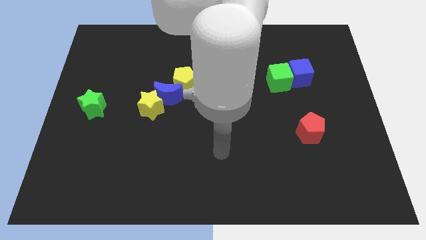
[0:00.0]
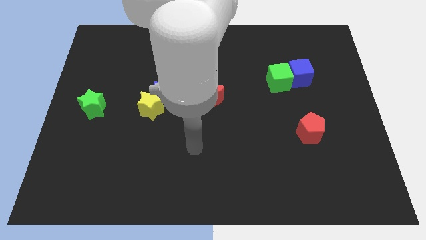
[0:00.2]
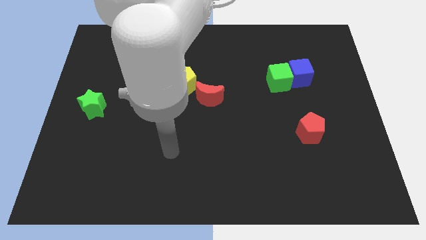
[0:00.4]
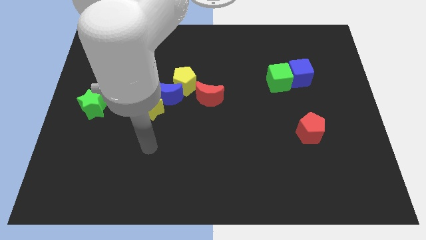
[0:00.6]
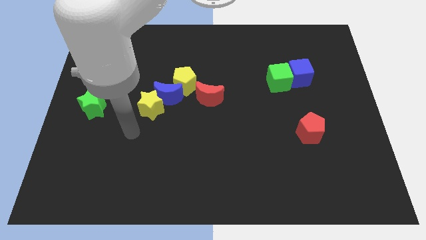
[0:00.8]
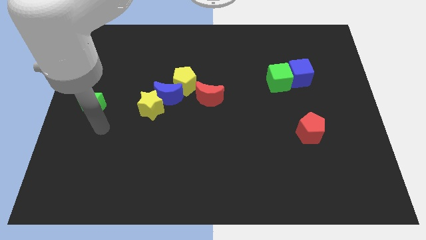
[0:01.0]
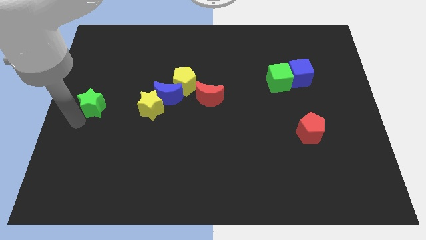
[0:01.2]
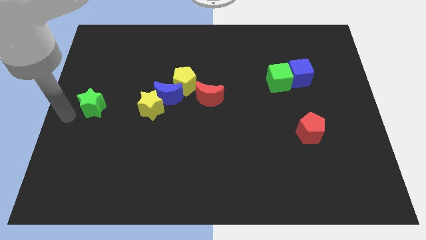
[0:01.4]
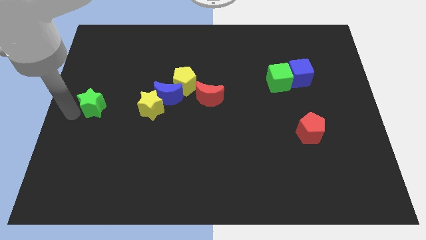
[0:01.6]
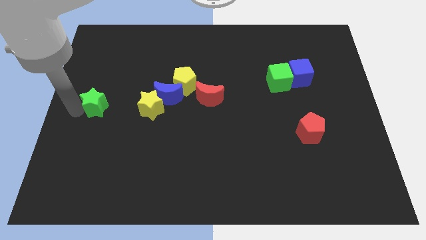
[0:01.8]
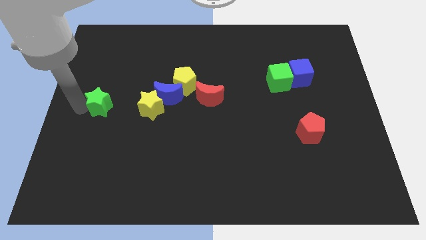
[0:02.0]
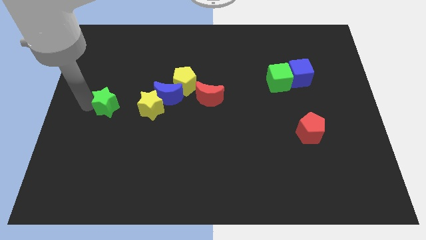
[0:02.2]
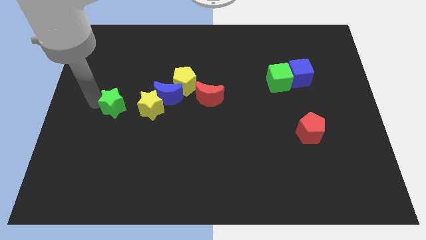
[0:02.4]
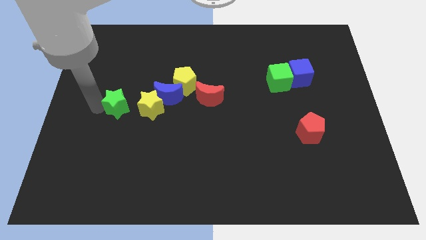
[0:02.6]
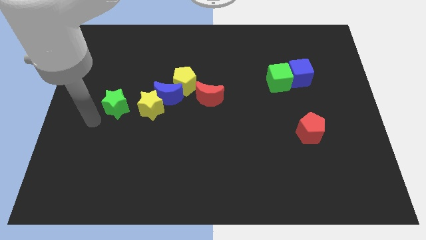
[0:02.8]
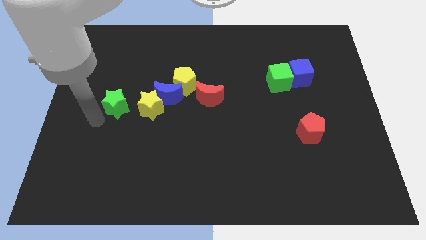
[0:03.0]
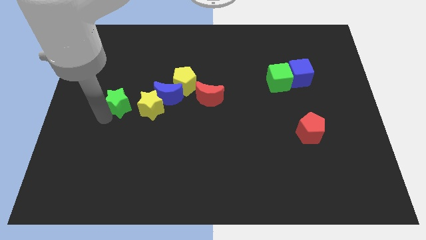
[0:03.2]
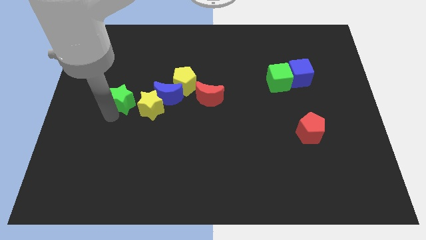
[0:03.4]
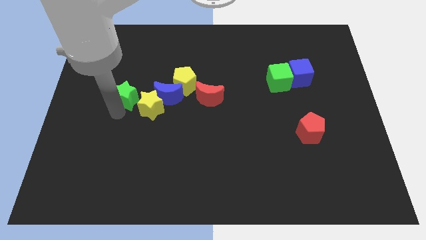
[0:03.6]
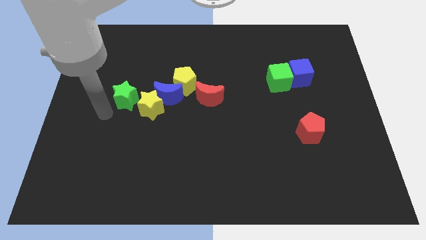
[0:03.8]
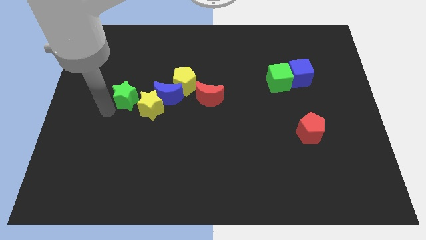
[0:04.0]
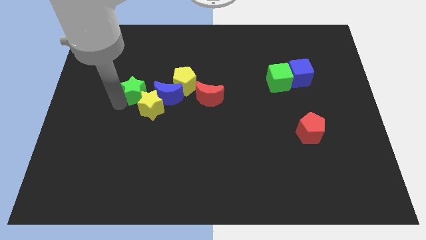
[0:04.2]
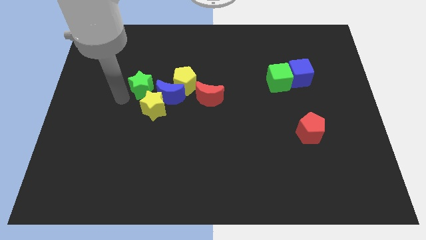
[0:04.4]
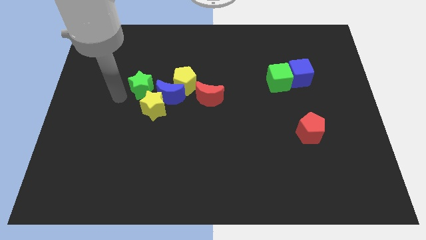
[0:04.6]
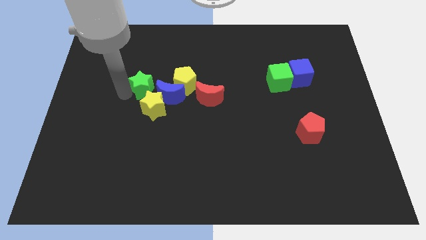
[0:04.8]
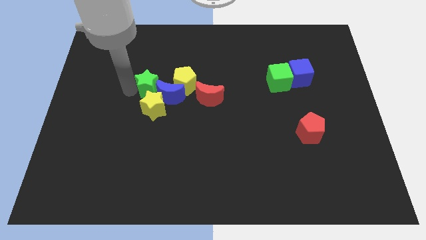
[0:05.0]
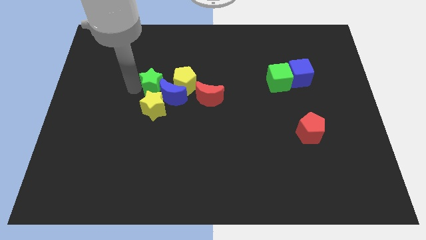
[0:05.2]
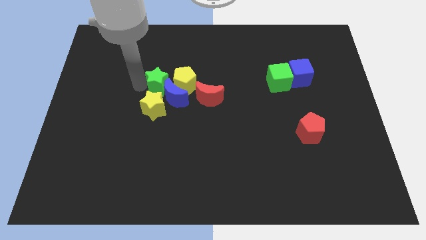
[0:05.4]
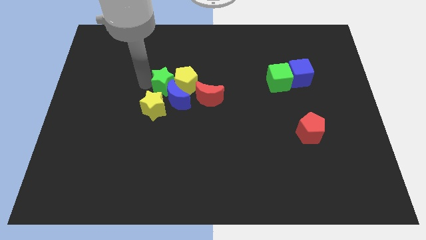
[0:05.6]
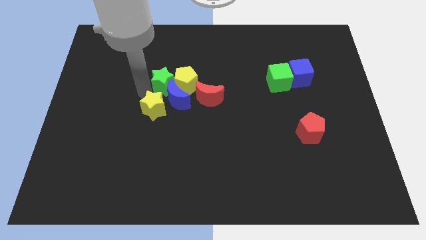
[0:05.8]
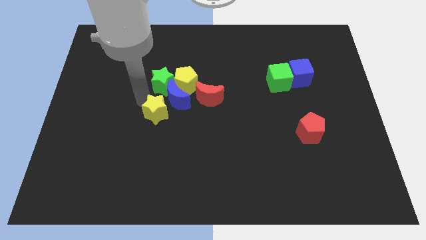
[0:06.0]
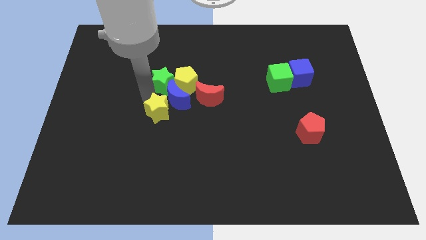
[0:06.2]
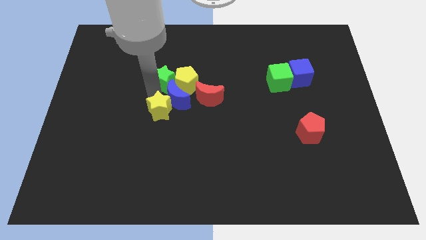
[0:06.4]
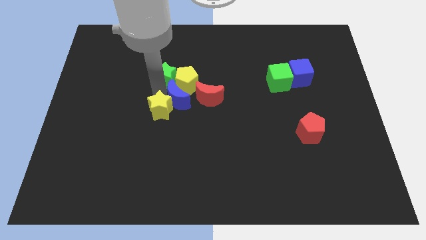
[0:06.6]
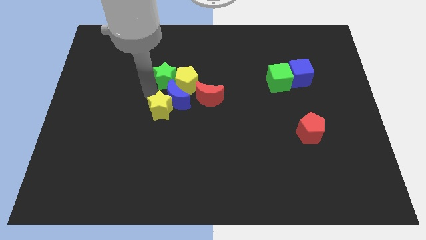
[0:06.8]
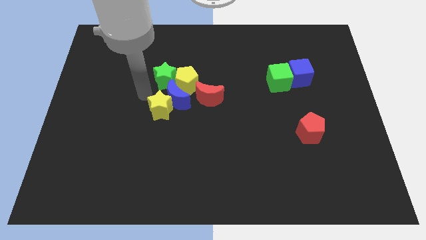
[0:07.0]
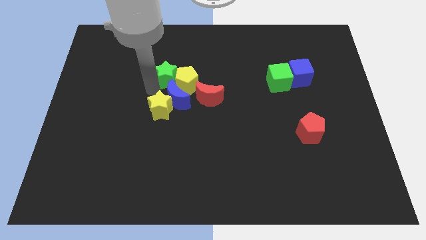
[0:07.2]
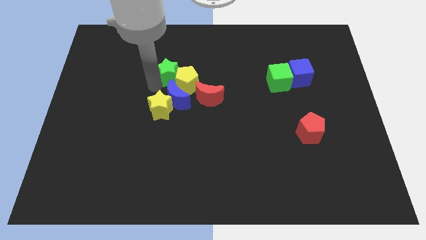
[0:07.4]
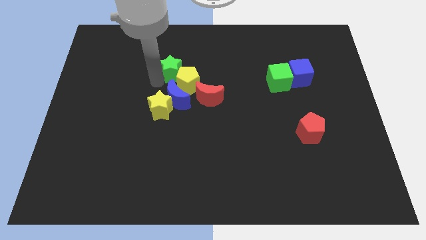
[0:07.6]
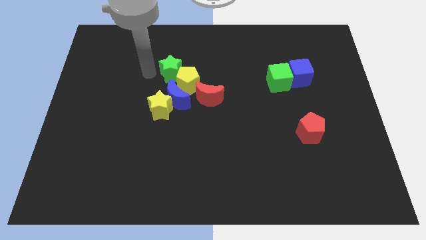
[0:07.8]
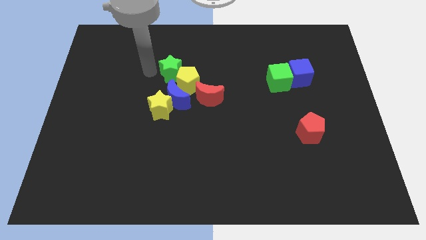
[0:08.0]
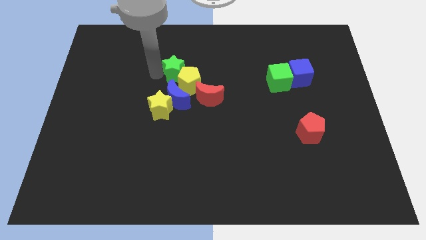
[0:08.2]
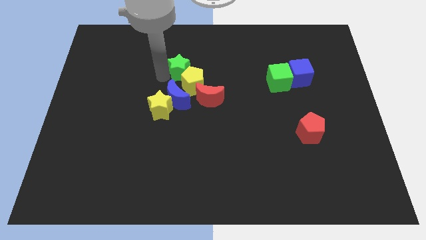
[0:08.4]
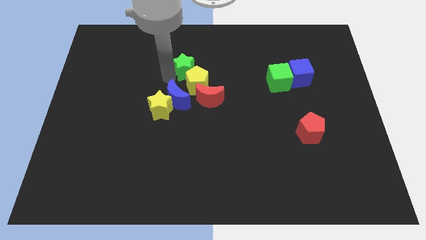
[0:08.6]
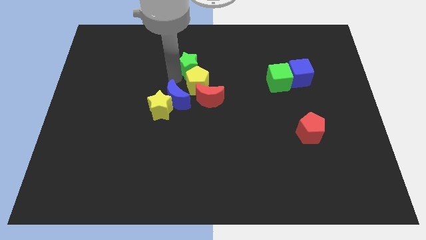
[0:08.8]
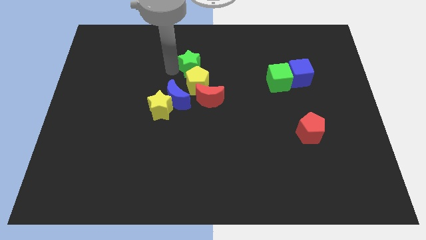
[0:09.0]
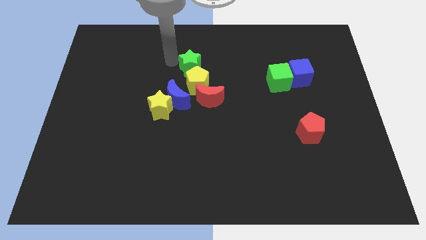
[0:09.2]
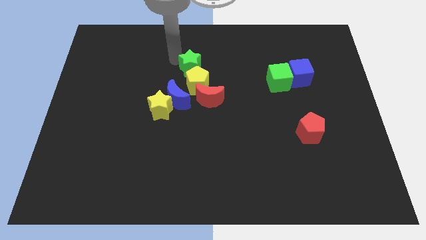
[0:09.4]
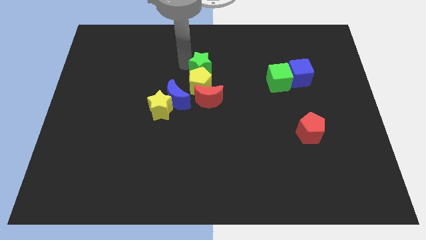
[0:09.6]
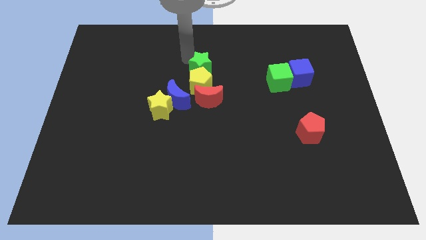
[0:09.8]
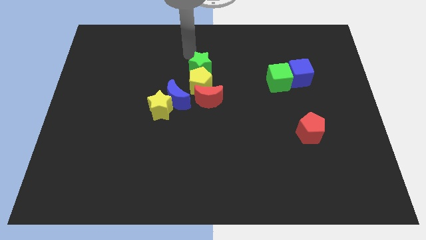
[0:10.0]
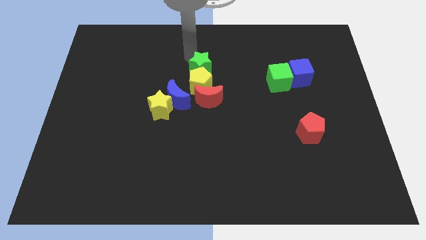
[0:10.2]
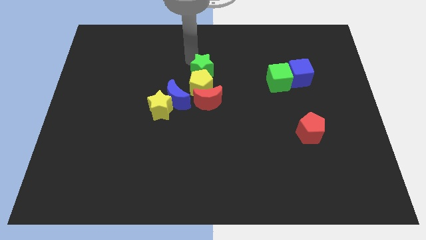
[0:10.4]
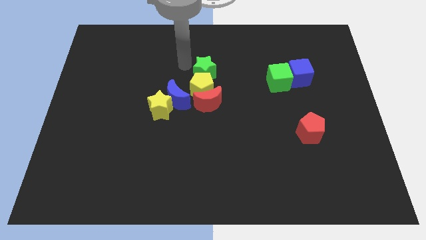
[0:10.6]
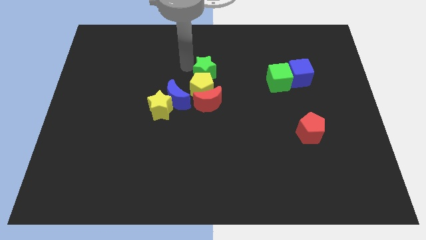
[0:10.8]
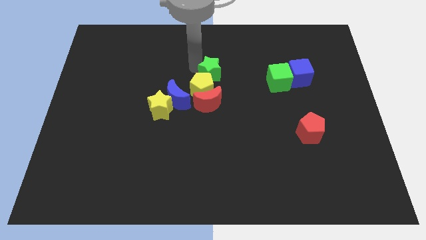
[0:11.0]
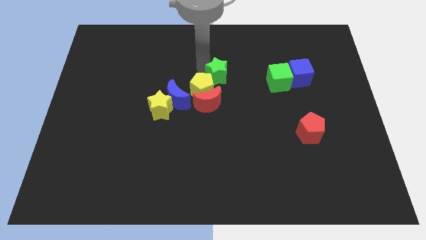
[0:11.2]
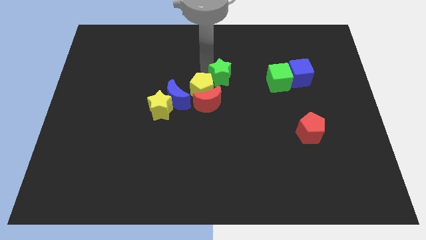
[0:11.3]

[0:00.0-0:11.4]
push the green star to the right side of the yellow pentagon

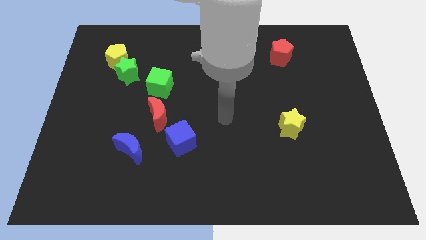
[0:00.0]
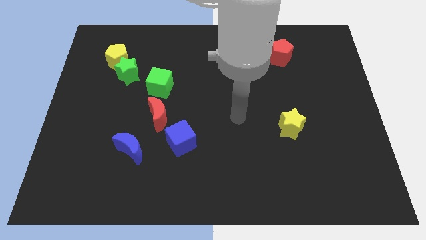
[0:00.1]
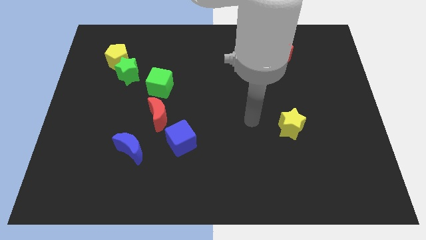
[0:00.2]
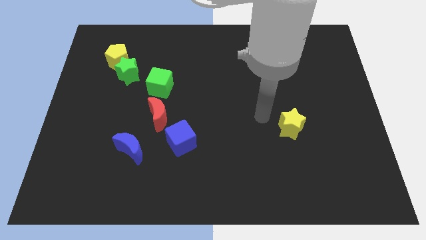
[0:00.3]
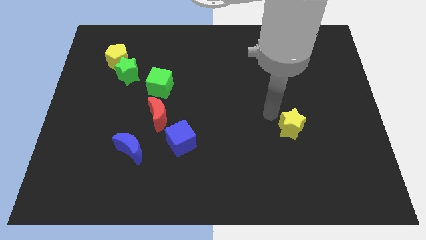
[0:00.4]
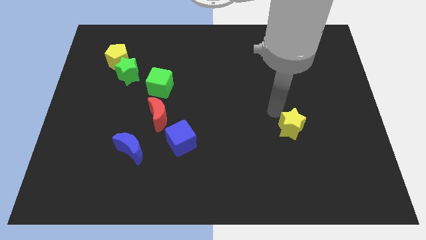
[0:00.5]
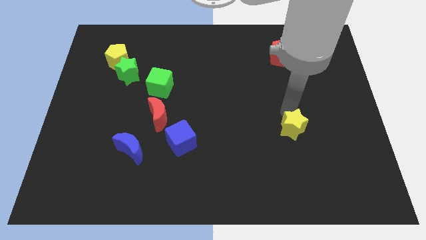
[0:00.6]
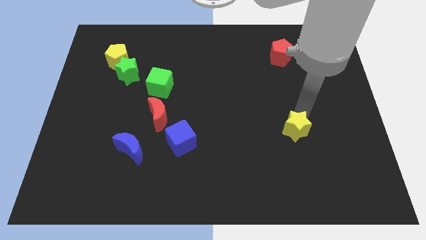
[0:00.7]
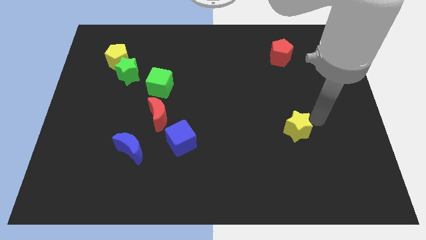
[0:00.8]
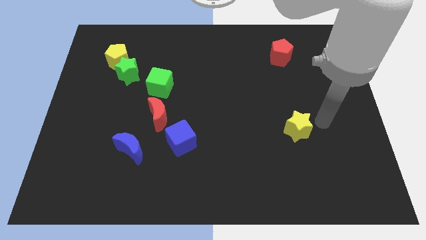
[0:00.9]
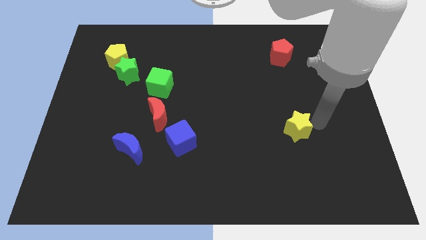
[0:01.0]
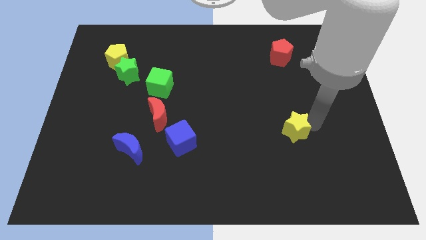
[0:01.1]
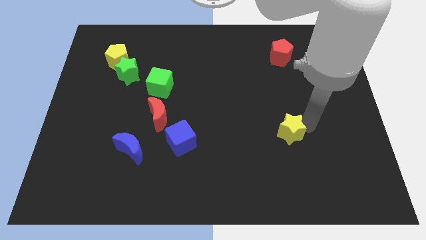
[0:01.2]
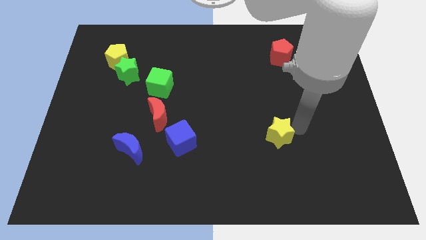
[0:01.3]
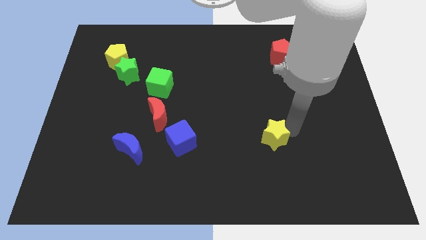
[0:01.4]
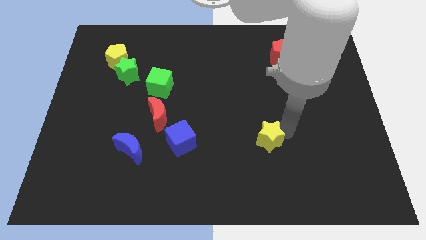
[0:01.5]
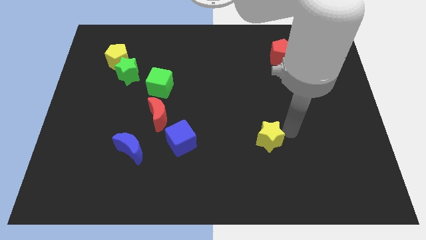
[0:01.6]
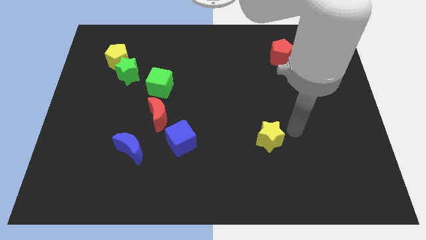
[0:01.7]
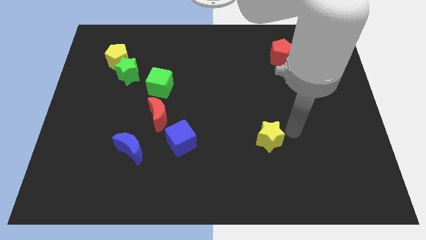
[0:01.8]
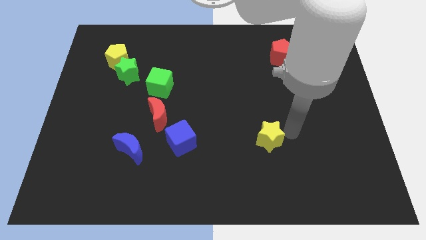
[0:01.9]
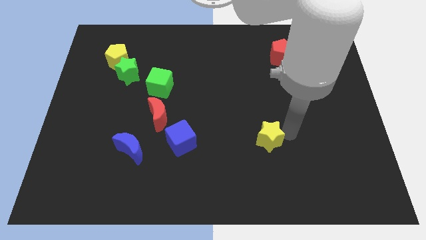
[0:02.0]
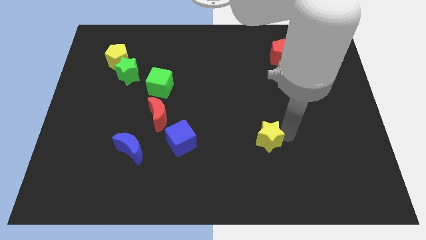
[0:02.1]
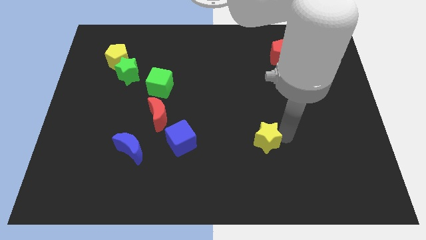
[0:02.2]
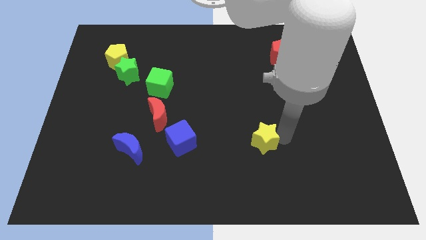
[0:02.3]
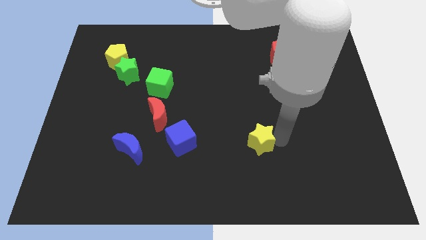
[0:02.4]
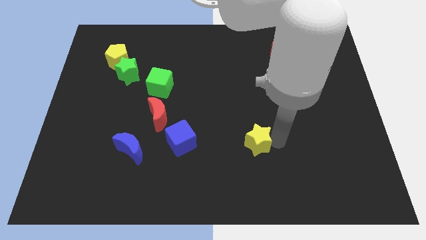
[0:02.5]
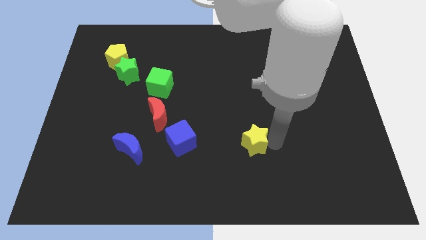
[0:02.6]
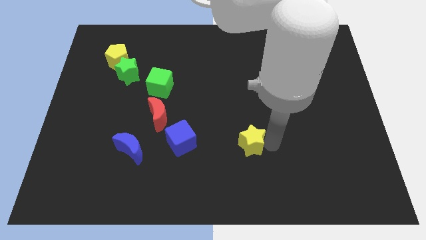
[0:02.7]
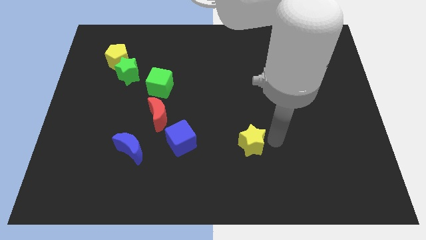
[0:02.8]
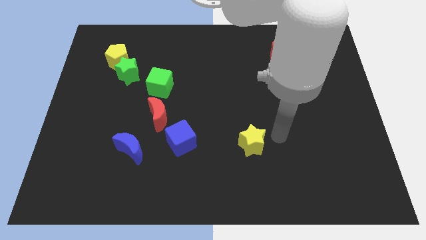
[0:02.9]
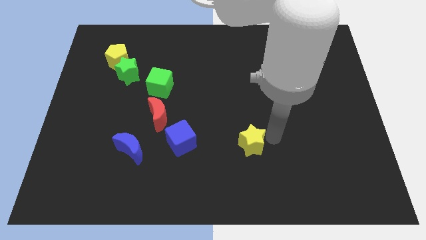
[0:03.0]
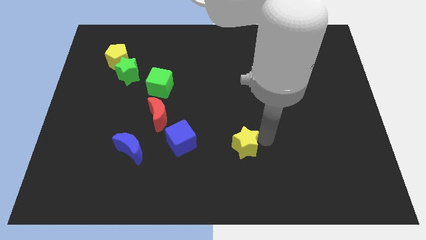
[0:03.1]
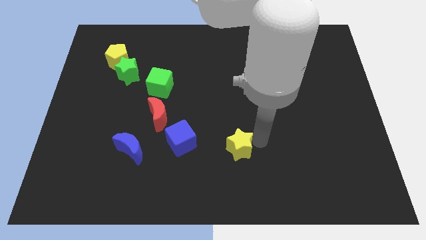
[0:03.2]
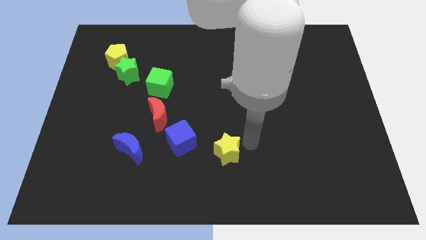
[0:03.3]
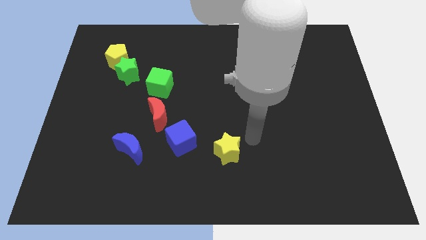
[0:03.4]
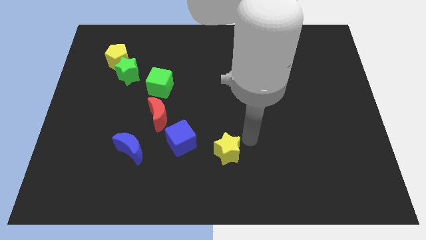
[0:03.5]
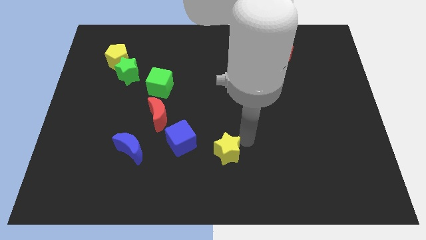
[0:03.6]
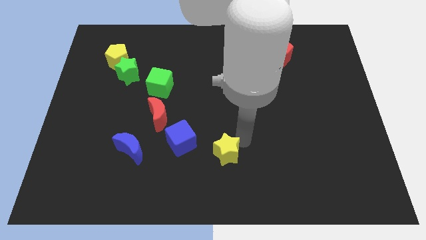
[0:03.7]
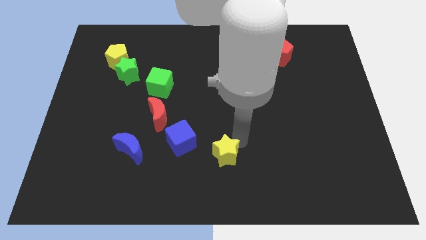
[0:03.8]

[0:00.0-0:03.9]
move the yellow star diagonally down and to the right of the blue cube
